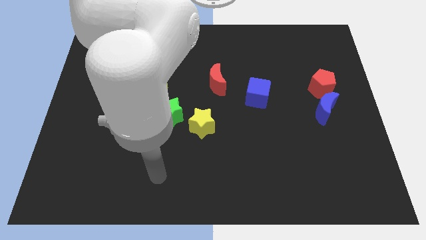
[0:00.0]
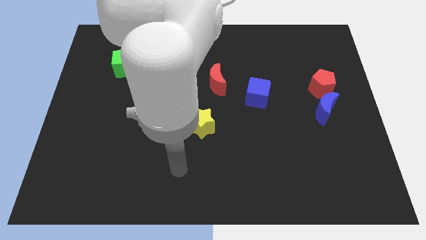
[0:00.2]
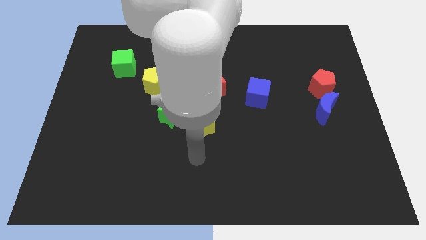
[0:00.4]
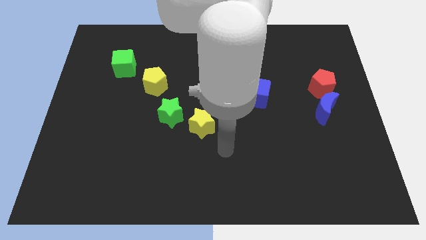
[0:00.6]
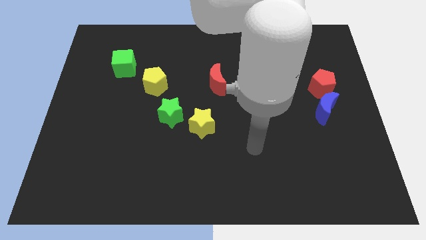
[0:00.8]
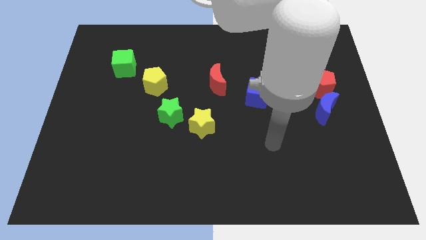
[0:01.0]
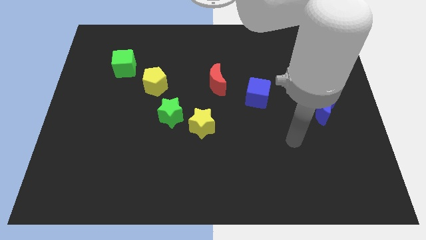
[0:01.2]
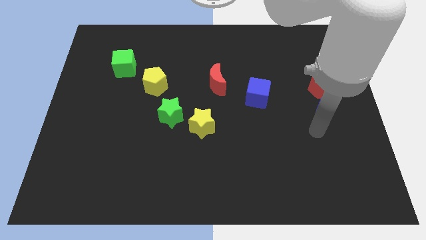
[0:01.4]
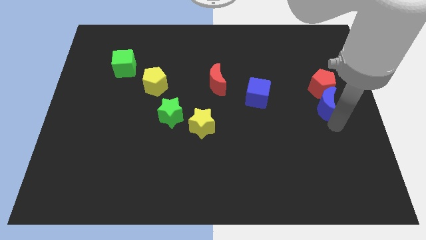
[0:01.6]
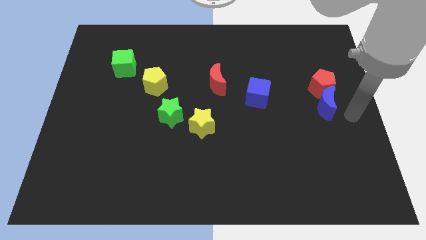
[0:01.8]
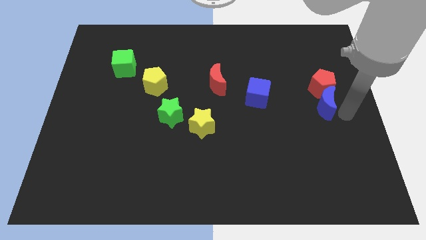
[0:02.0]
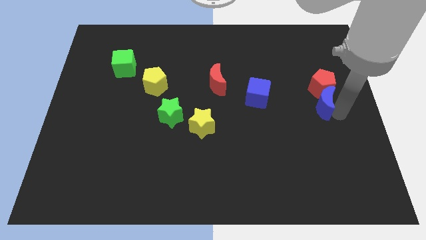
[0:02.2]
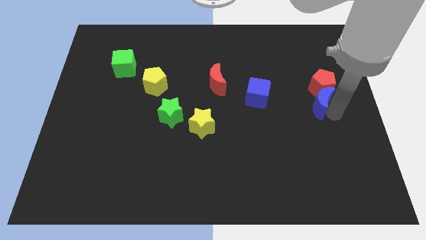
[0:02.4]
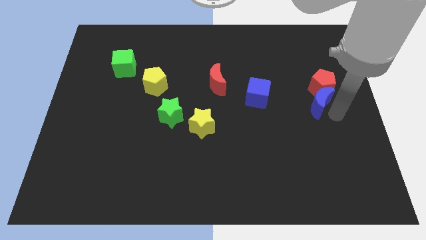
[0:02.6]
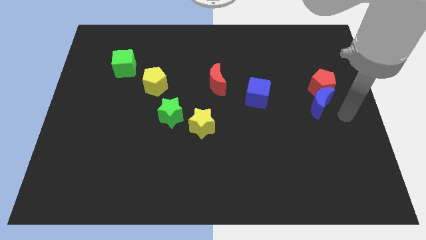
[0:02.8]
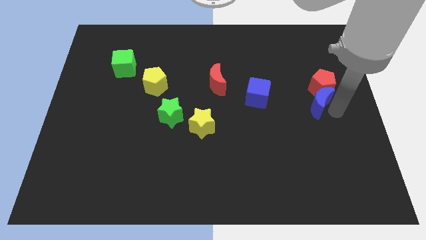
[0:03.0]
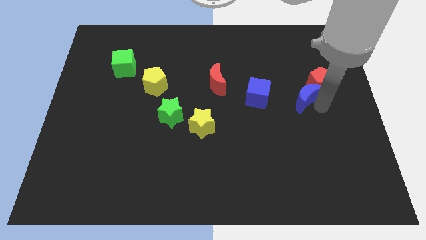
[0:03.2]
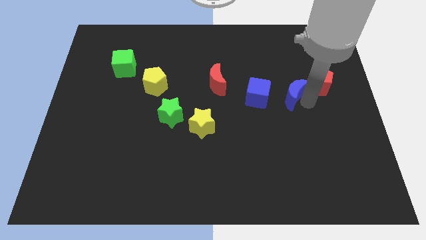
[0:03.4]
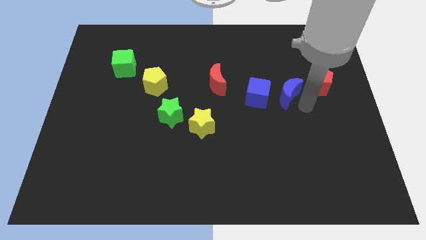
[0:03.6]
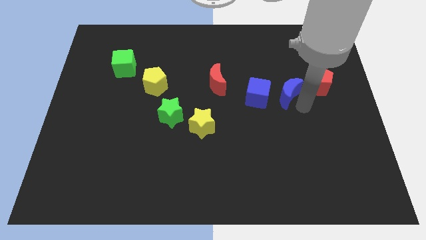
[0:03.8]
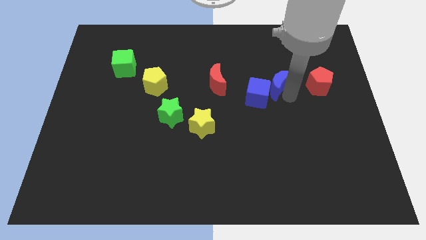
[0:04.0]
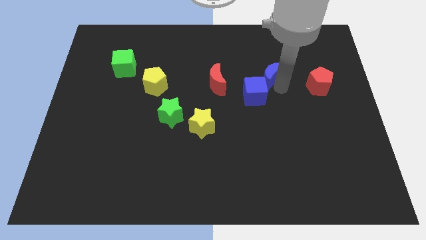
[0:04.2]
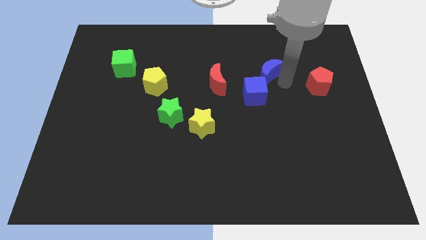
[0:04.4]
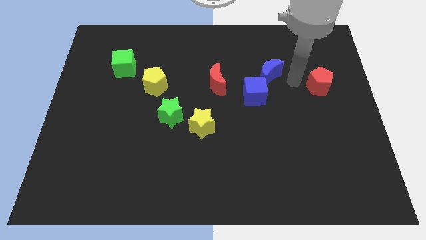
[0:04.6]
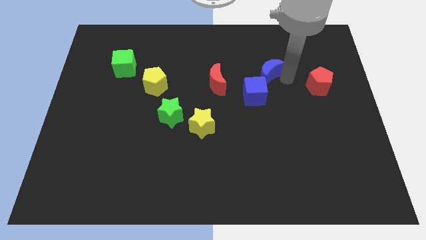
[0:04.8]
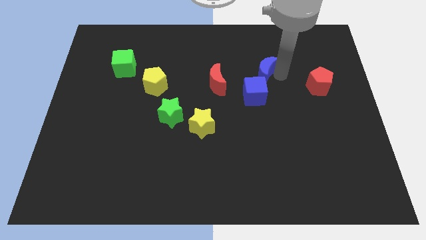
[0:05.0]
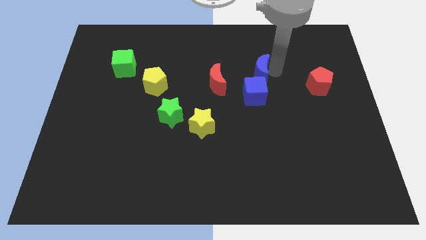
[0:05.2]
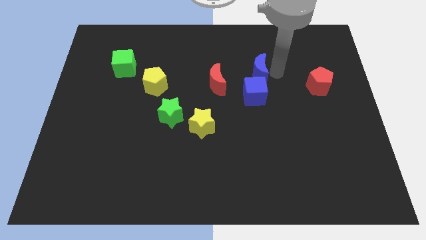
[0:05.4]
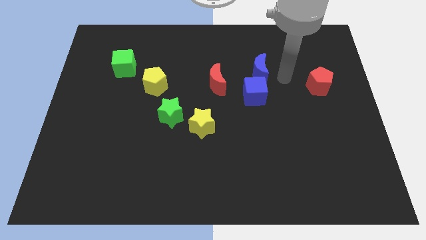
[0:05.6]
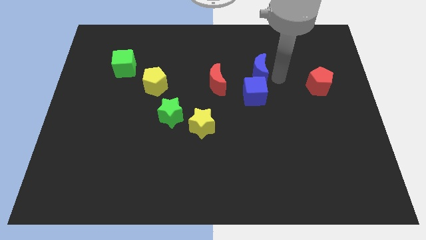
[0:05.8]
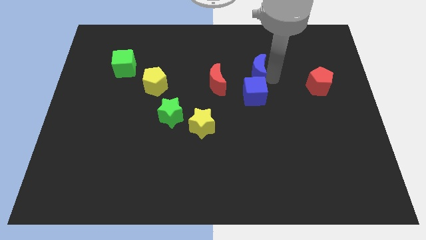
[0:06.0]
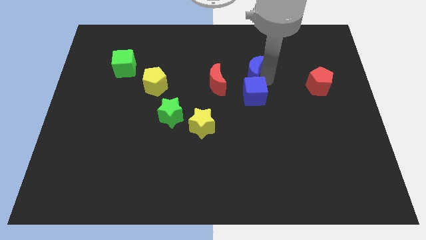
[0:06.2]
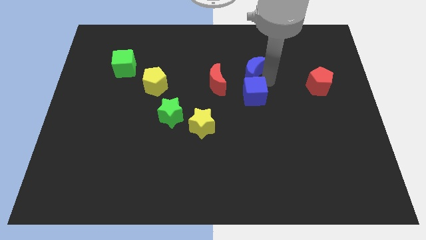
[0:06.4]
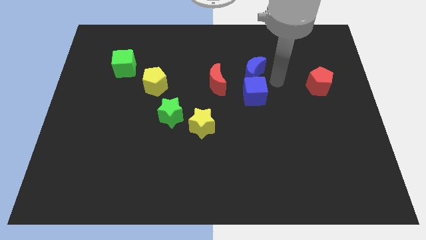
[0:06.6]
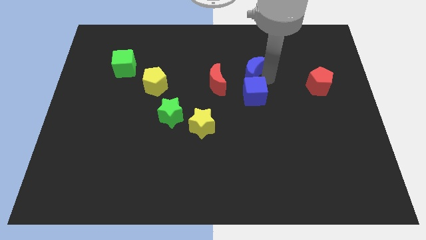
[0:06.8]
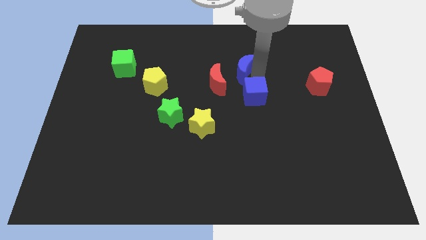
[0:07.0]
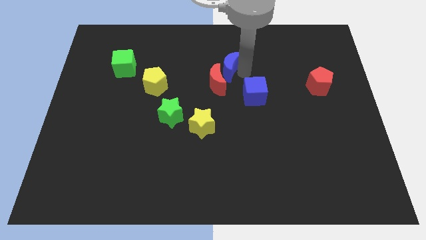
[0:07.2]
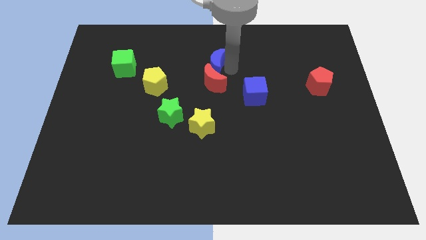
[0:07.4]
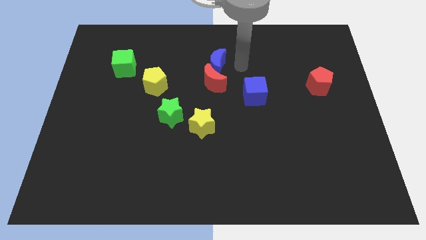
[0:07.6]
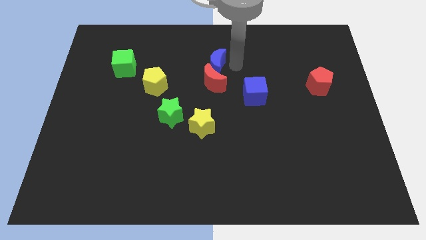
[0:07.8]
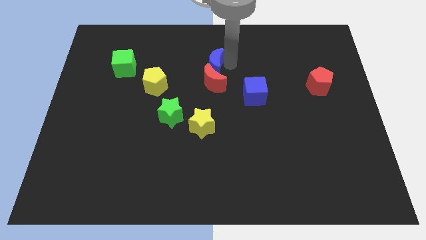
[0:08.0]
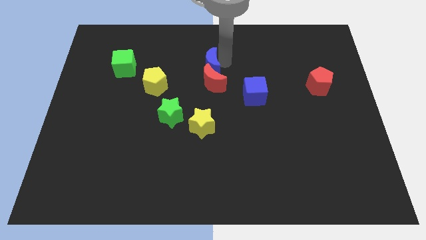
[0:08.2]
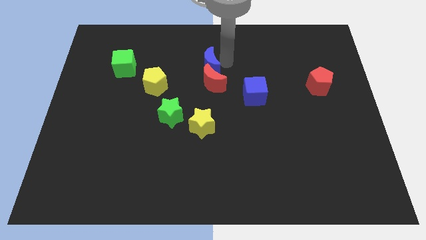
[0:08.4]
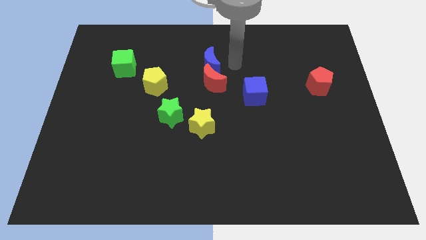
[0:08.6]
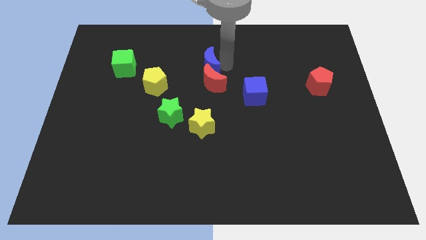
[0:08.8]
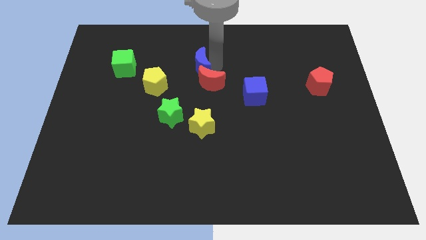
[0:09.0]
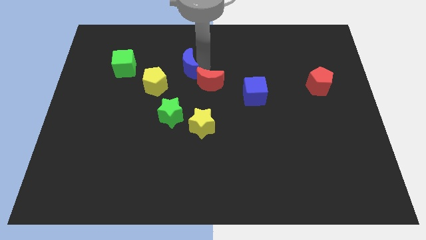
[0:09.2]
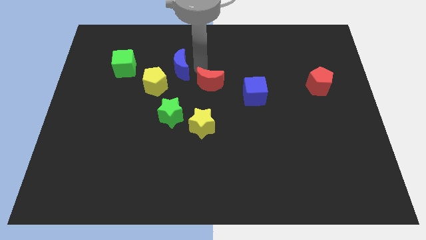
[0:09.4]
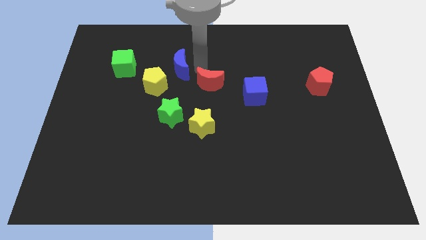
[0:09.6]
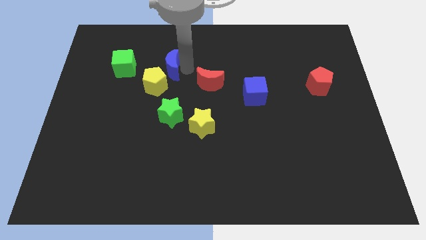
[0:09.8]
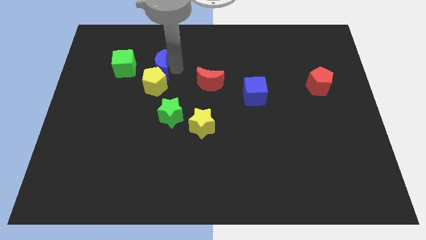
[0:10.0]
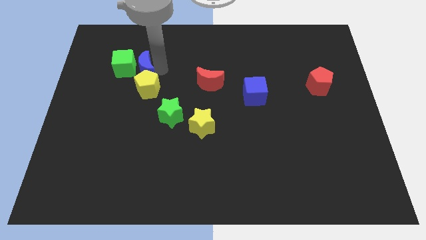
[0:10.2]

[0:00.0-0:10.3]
slide the blue moon to the green cube

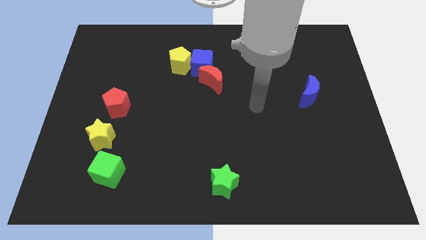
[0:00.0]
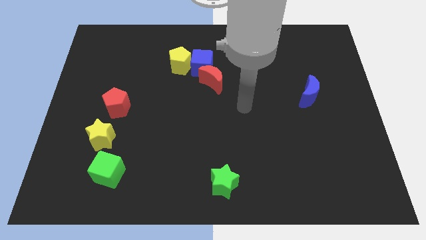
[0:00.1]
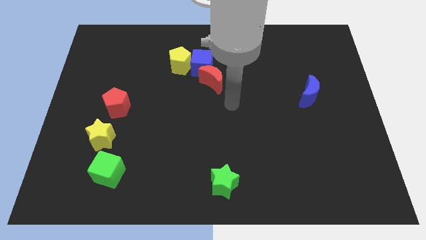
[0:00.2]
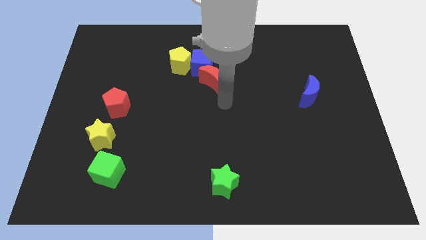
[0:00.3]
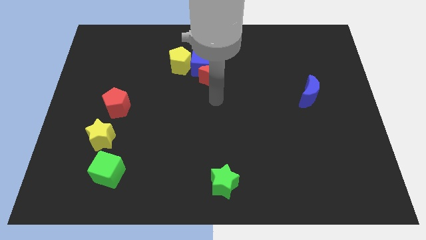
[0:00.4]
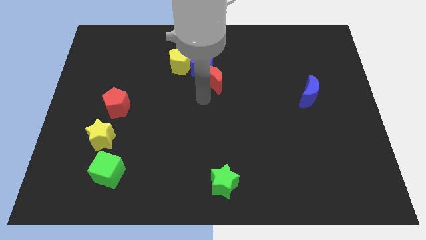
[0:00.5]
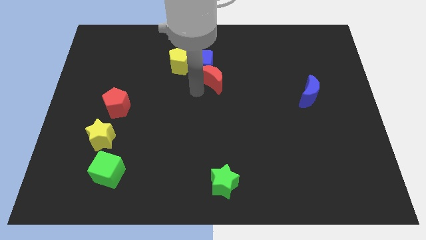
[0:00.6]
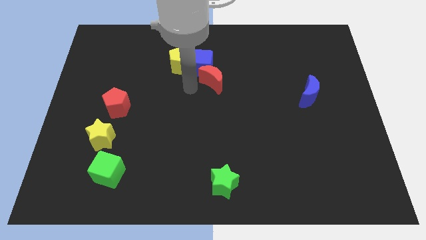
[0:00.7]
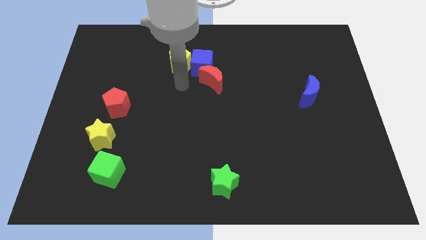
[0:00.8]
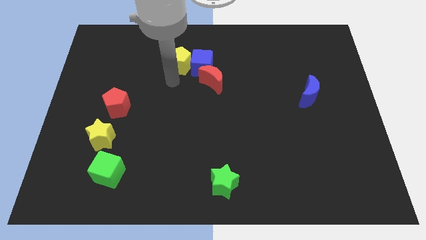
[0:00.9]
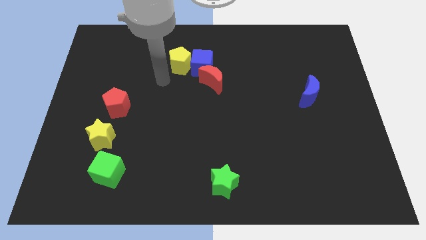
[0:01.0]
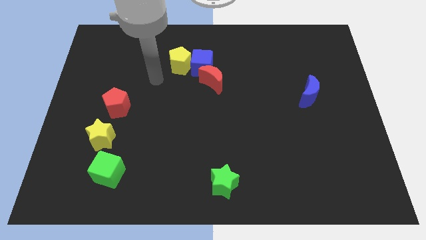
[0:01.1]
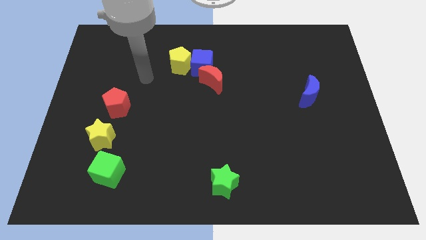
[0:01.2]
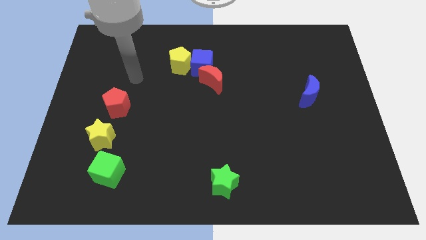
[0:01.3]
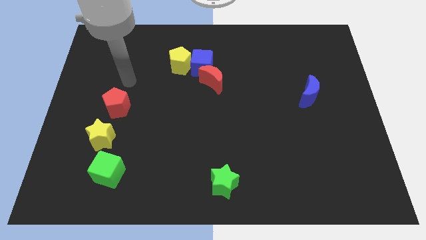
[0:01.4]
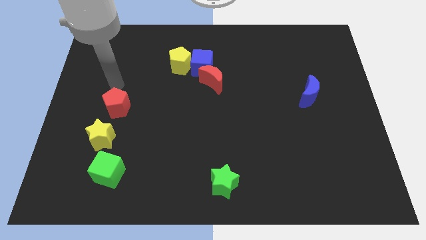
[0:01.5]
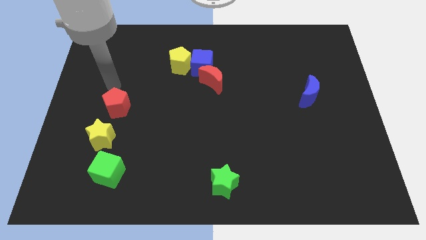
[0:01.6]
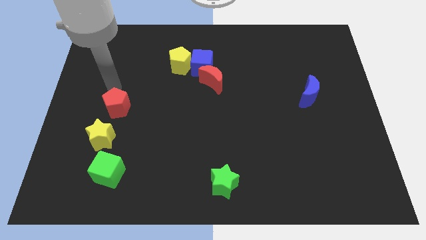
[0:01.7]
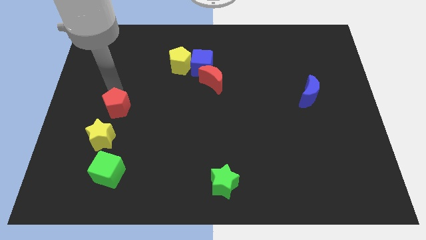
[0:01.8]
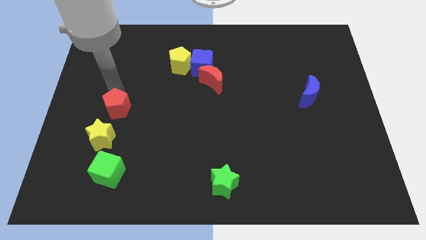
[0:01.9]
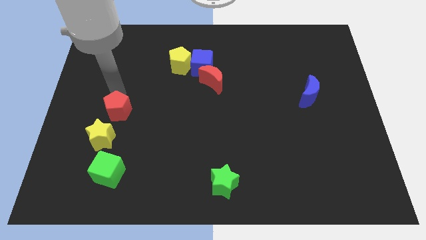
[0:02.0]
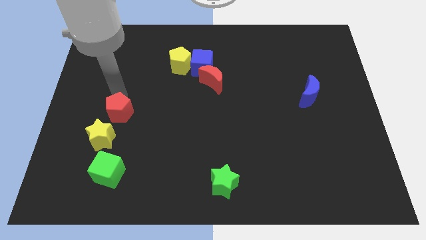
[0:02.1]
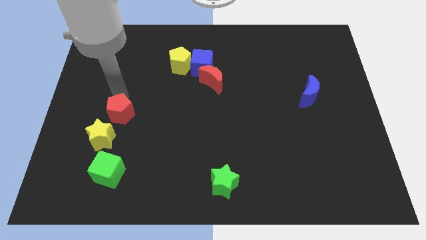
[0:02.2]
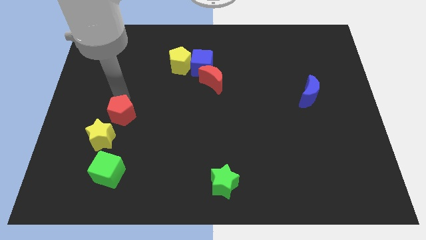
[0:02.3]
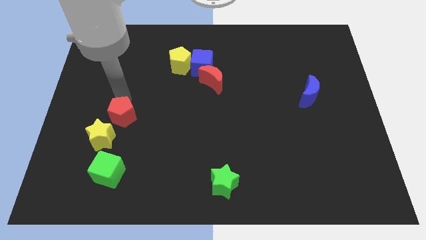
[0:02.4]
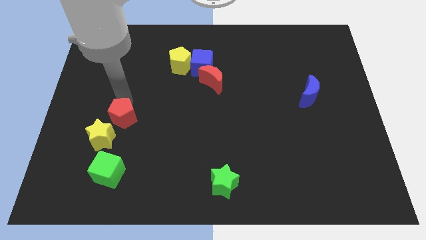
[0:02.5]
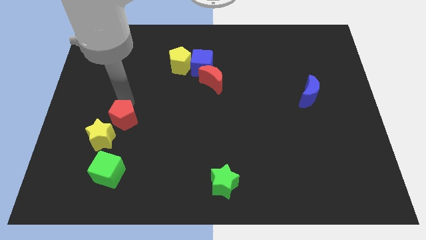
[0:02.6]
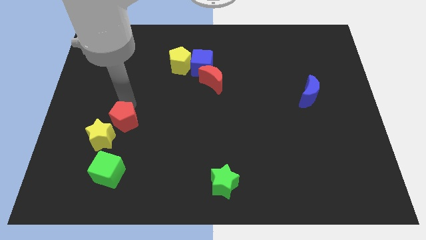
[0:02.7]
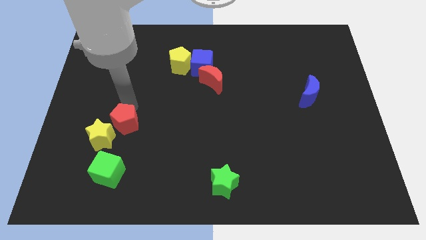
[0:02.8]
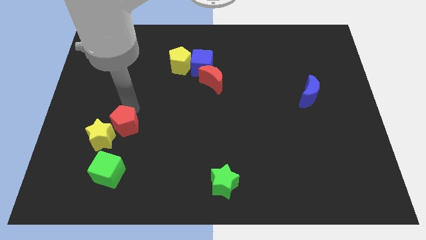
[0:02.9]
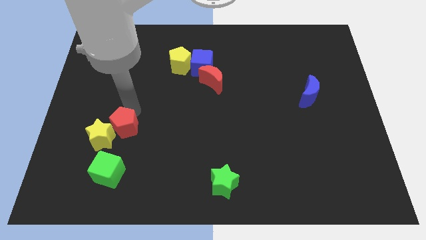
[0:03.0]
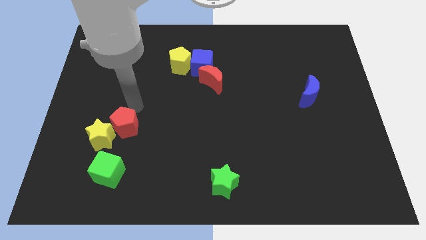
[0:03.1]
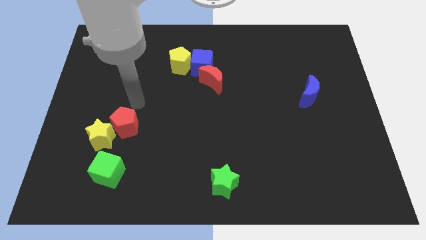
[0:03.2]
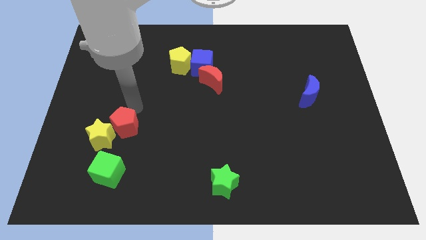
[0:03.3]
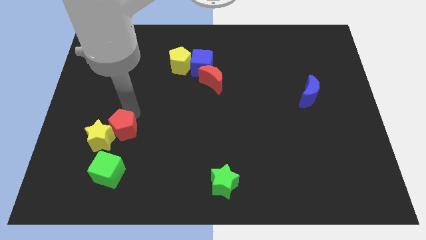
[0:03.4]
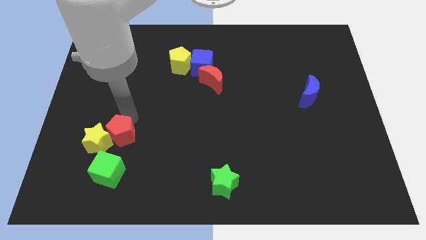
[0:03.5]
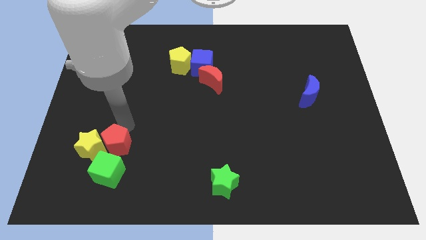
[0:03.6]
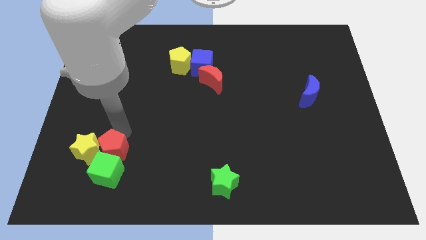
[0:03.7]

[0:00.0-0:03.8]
push the red pentagon close to the green cube
